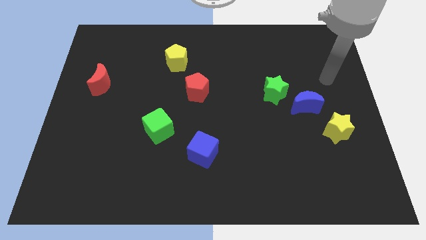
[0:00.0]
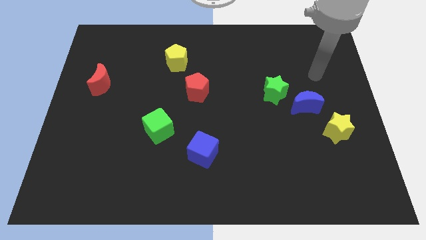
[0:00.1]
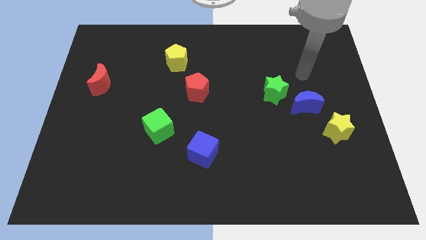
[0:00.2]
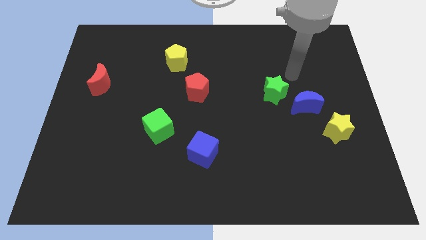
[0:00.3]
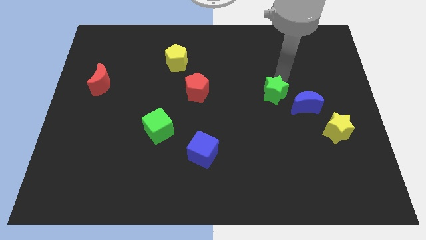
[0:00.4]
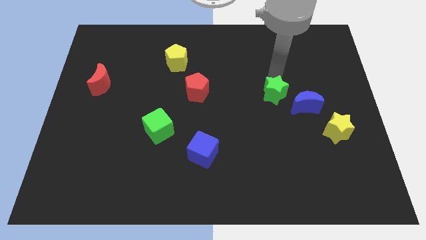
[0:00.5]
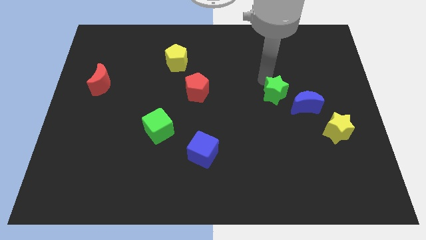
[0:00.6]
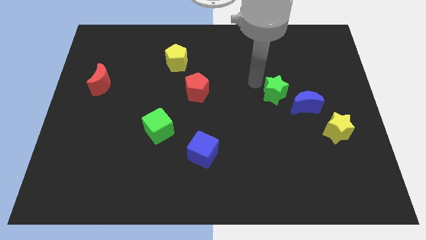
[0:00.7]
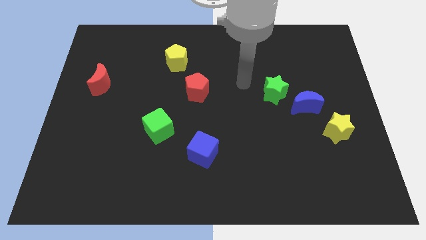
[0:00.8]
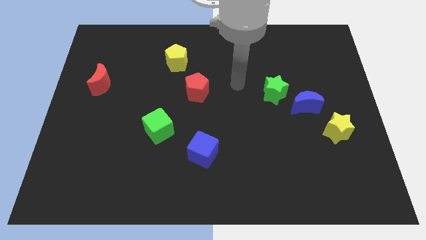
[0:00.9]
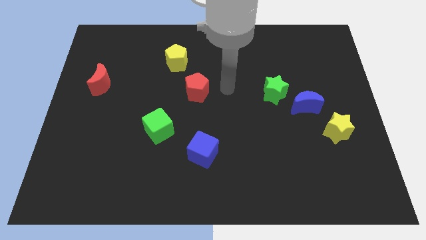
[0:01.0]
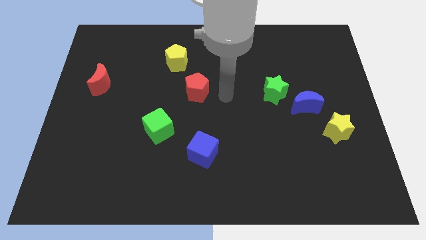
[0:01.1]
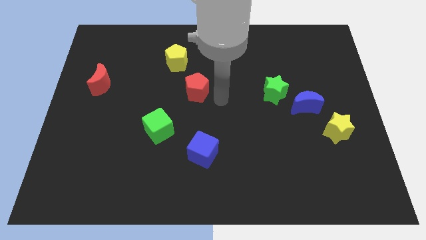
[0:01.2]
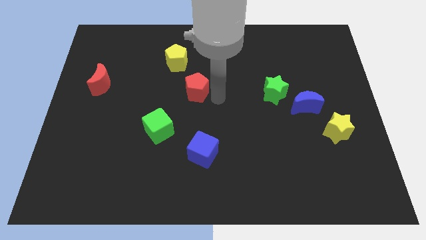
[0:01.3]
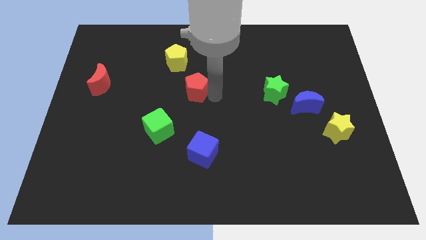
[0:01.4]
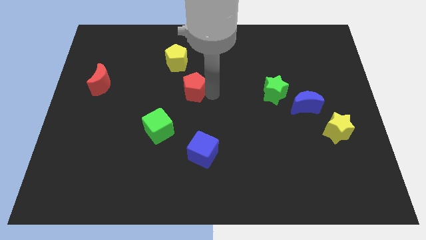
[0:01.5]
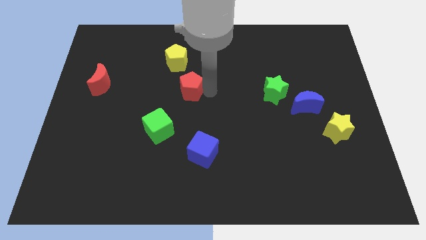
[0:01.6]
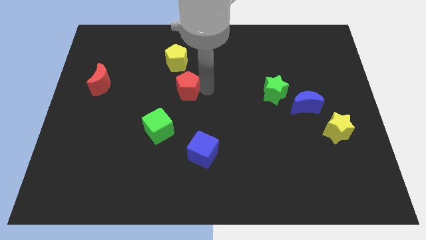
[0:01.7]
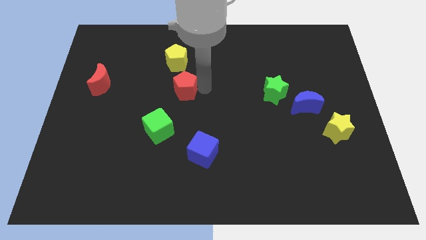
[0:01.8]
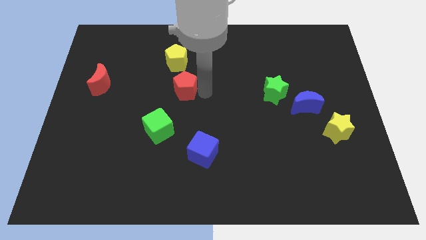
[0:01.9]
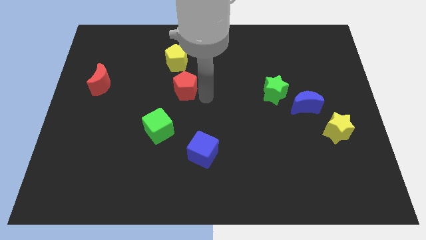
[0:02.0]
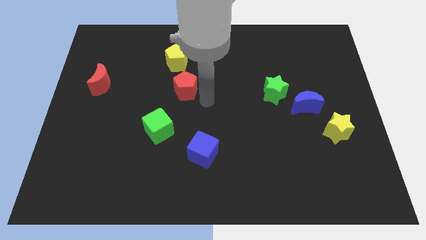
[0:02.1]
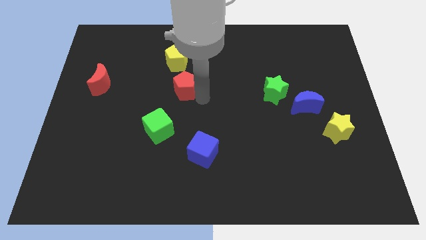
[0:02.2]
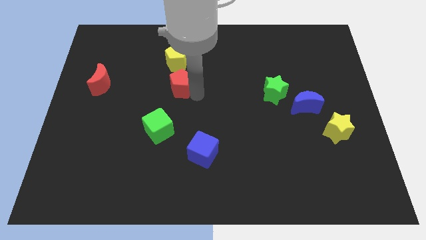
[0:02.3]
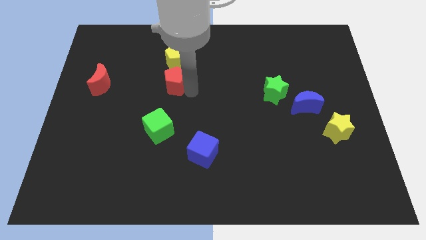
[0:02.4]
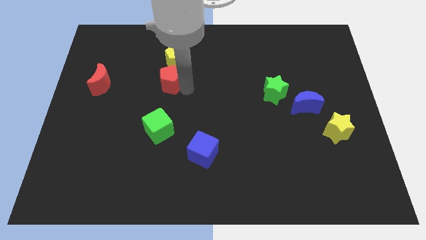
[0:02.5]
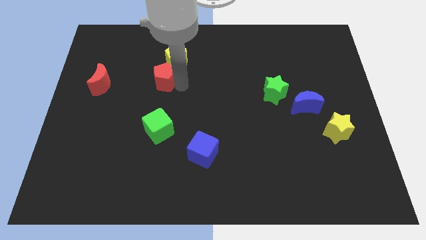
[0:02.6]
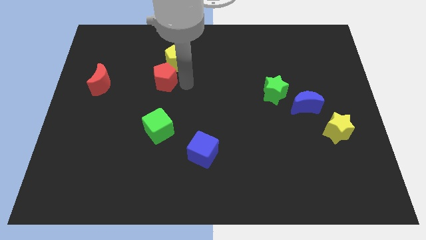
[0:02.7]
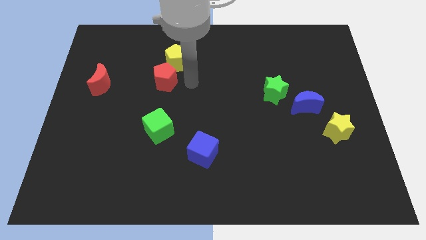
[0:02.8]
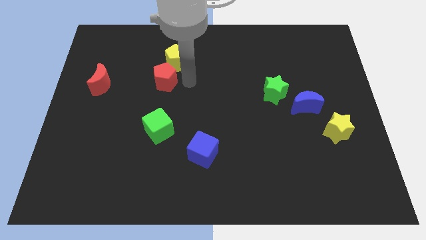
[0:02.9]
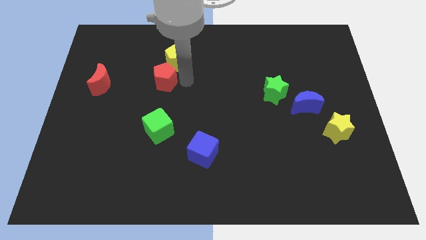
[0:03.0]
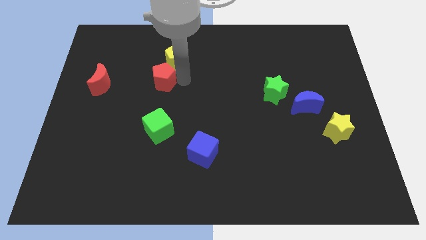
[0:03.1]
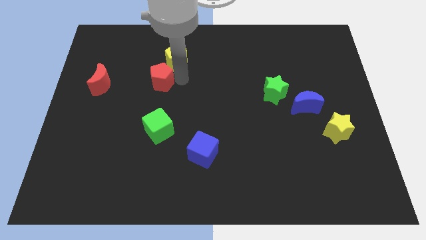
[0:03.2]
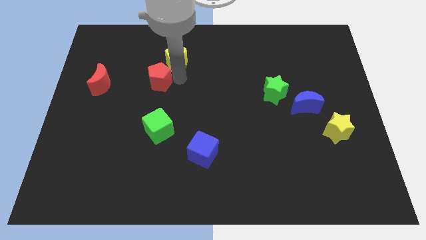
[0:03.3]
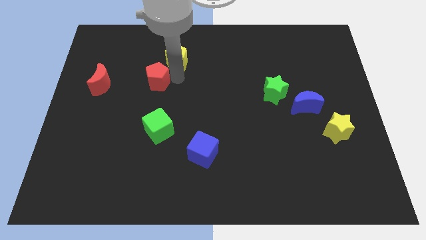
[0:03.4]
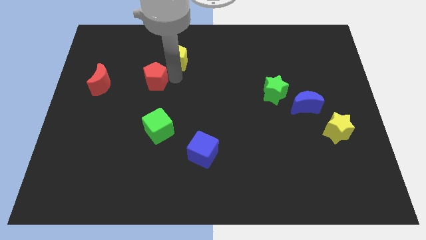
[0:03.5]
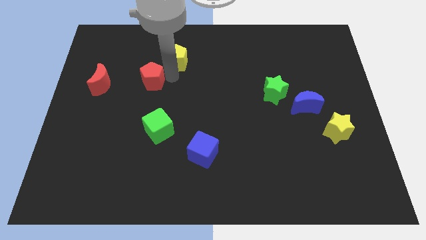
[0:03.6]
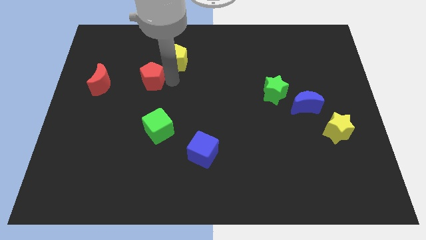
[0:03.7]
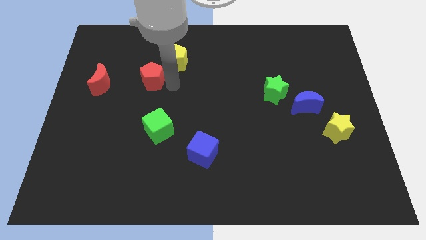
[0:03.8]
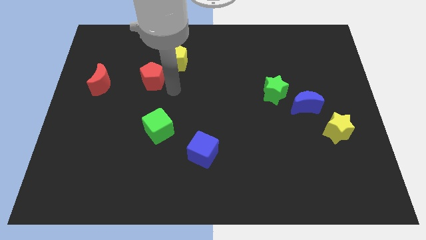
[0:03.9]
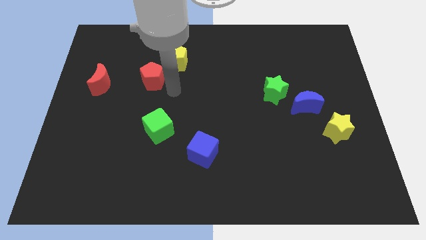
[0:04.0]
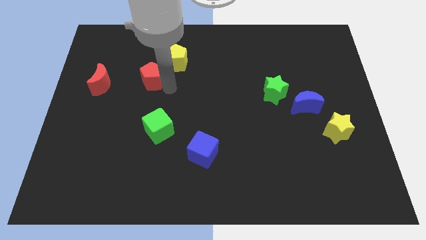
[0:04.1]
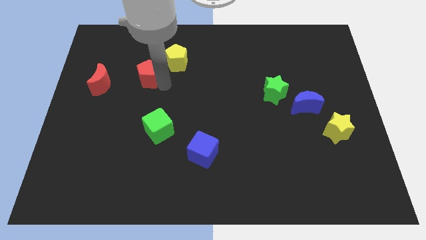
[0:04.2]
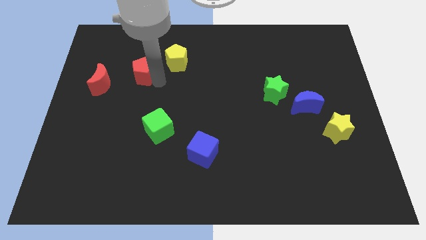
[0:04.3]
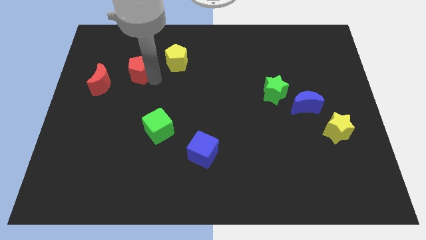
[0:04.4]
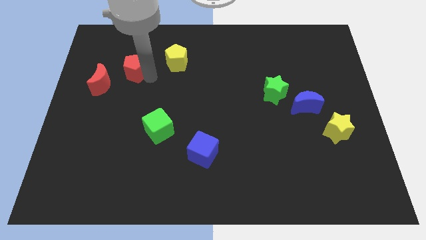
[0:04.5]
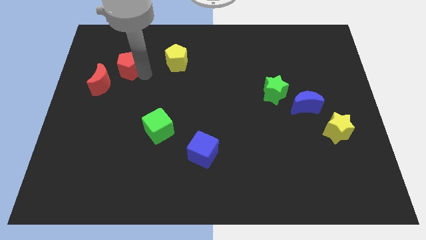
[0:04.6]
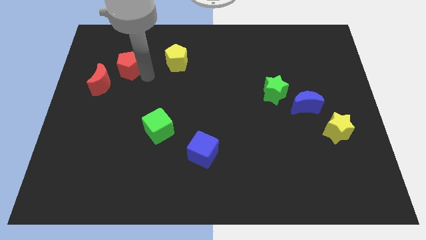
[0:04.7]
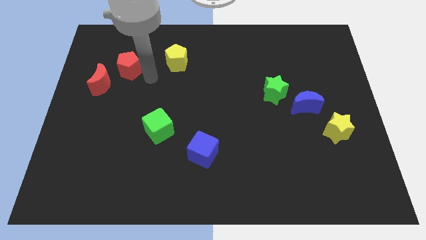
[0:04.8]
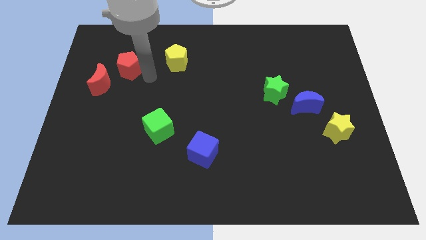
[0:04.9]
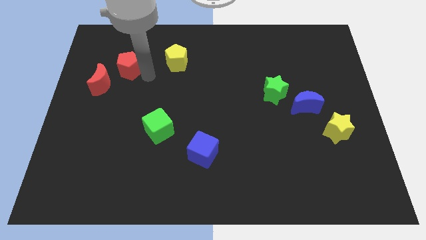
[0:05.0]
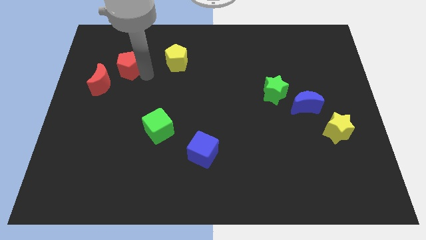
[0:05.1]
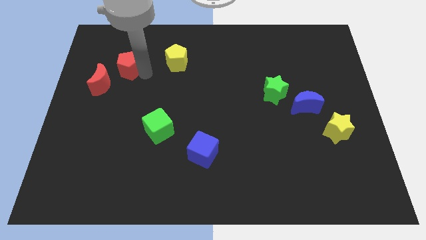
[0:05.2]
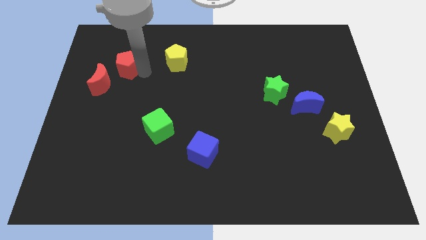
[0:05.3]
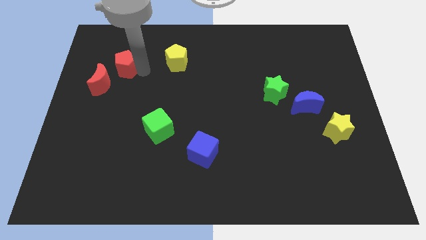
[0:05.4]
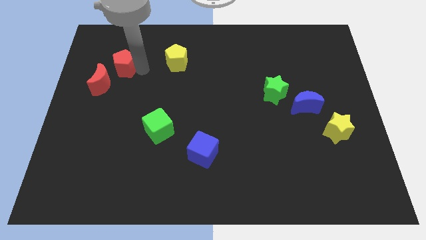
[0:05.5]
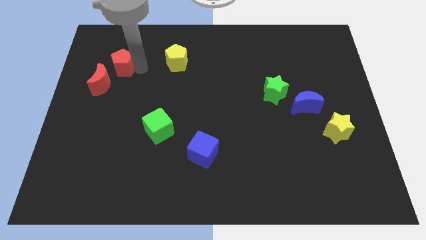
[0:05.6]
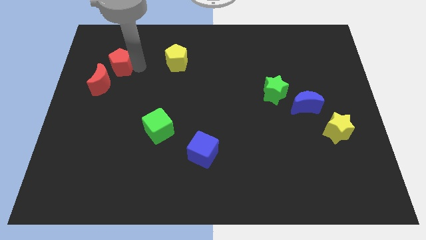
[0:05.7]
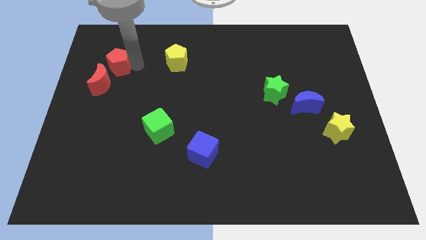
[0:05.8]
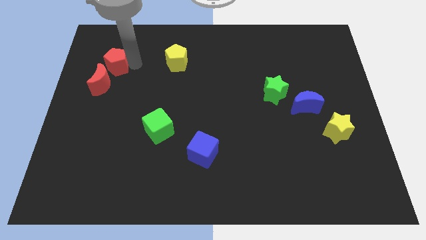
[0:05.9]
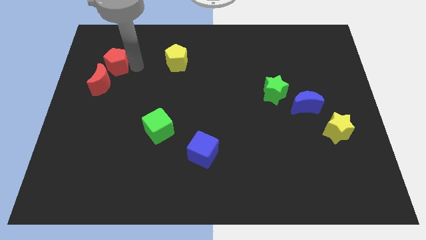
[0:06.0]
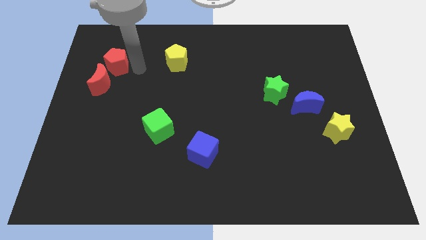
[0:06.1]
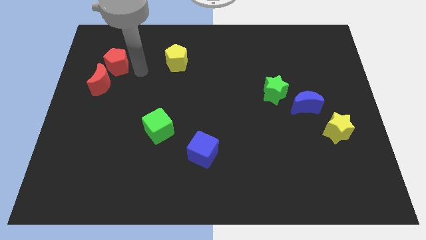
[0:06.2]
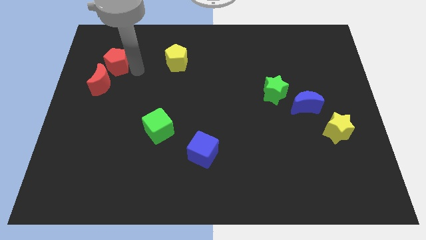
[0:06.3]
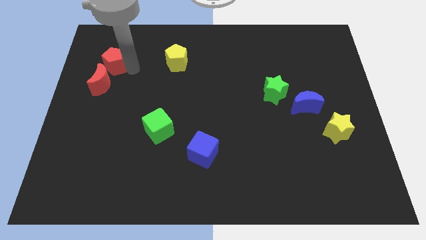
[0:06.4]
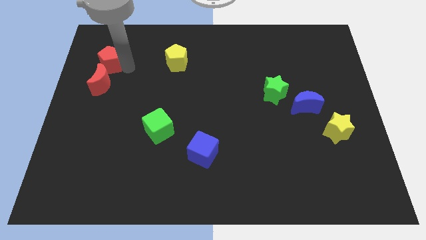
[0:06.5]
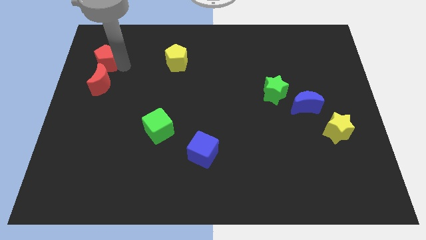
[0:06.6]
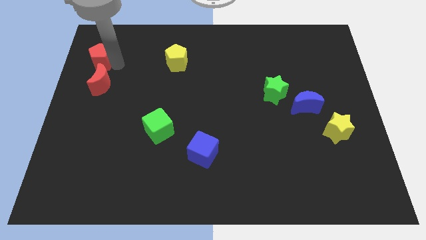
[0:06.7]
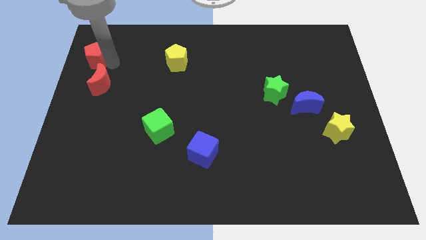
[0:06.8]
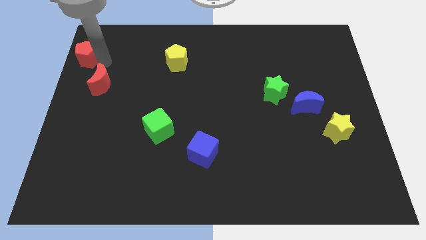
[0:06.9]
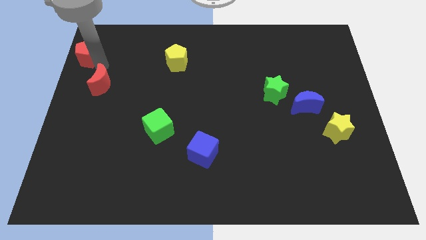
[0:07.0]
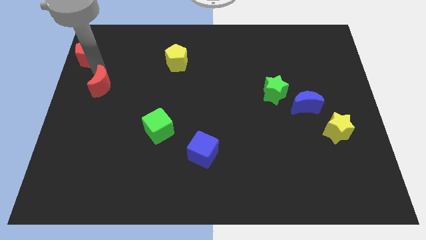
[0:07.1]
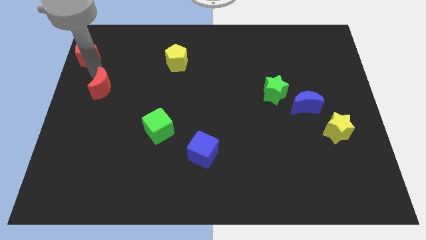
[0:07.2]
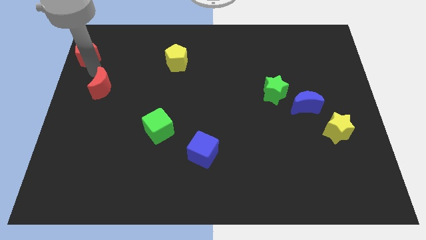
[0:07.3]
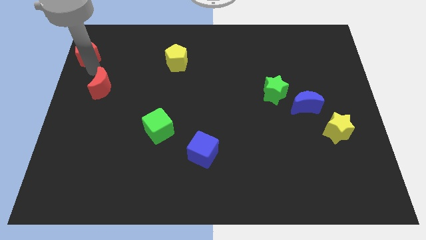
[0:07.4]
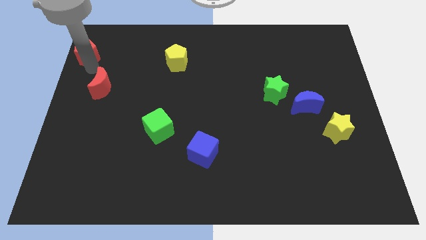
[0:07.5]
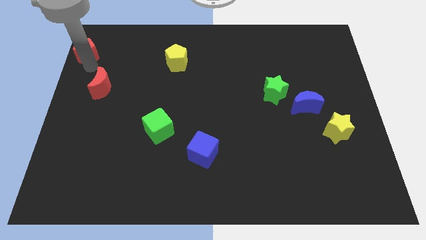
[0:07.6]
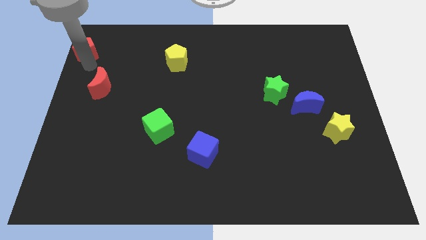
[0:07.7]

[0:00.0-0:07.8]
put the red pentagon to the top left of the board
